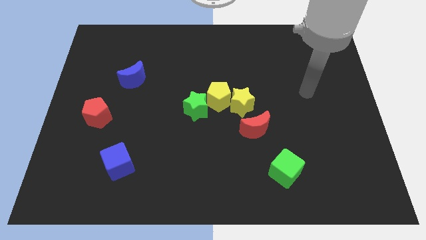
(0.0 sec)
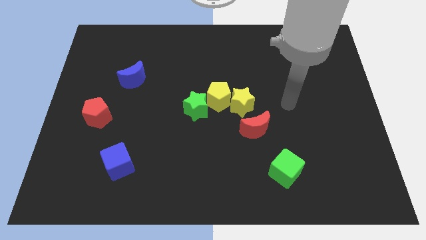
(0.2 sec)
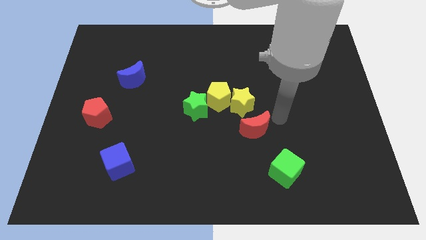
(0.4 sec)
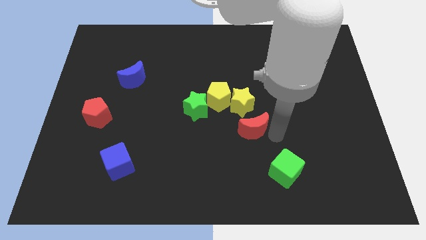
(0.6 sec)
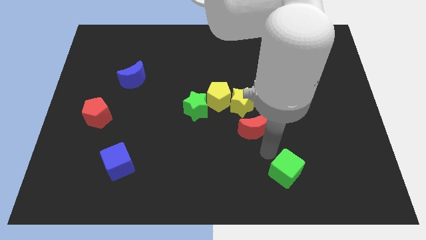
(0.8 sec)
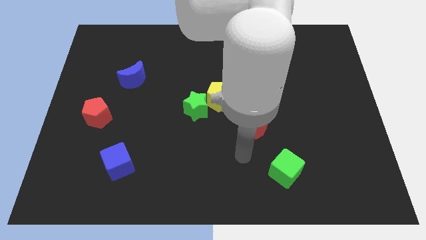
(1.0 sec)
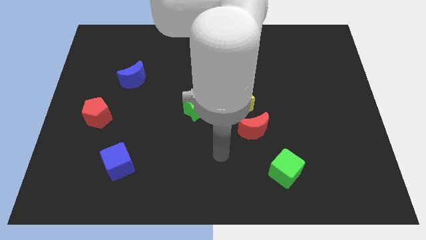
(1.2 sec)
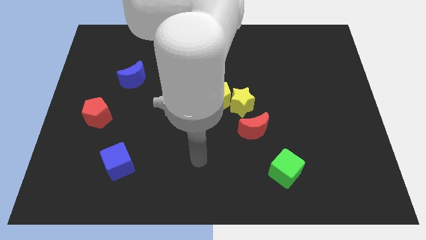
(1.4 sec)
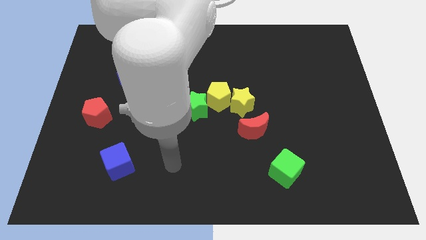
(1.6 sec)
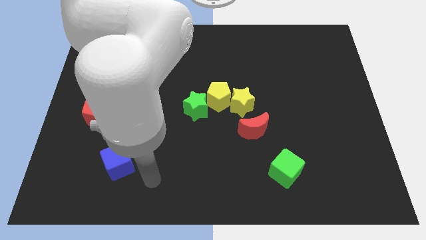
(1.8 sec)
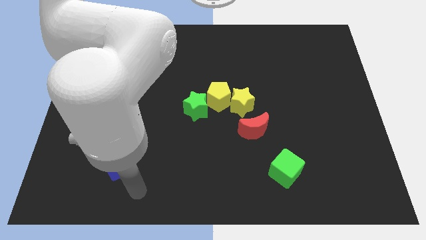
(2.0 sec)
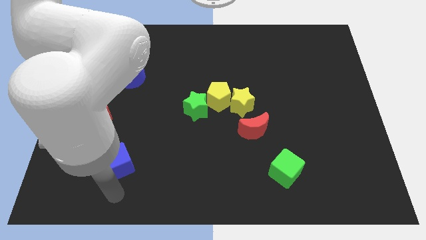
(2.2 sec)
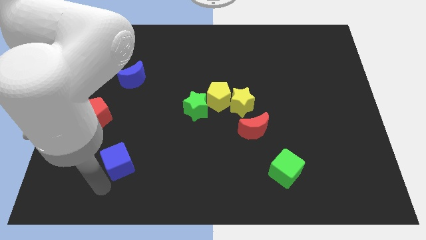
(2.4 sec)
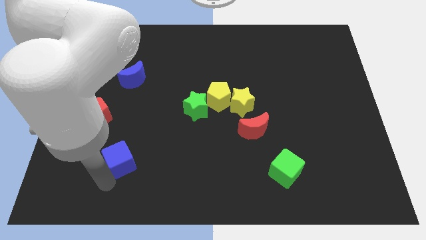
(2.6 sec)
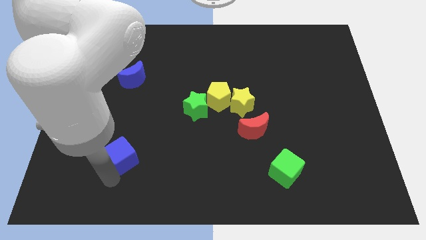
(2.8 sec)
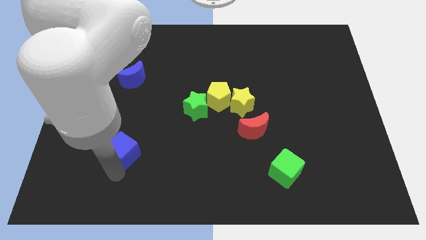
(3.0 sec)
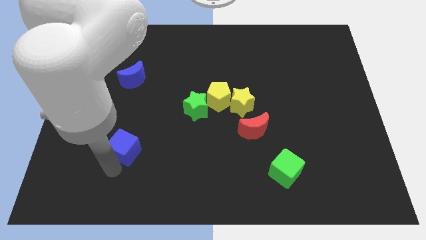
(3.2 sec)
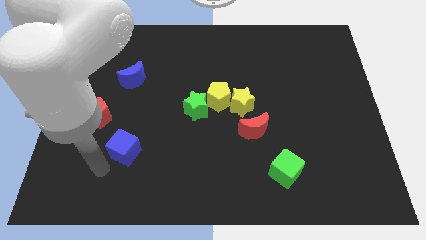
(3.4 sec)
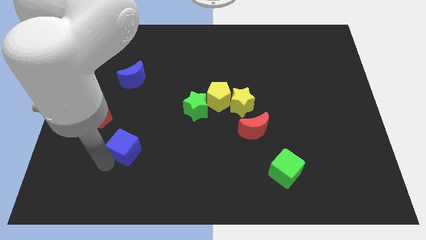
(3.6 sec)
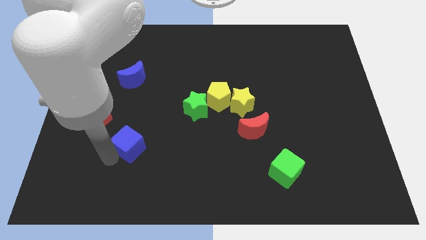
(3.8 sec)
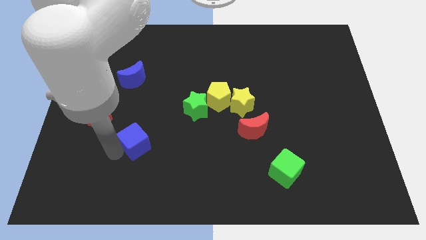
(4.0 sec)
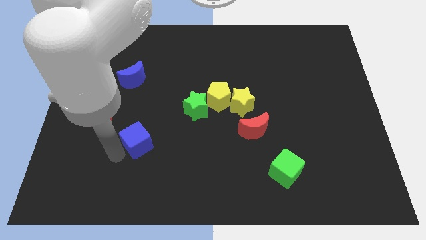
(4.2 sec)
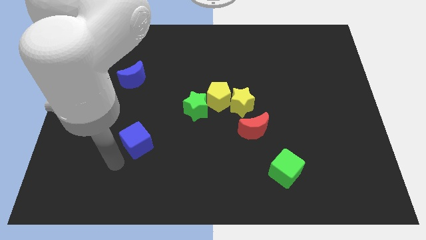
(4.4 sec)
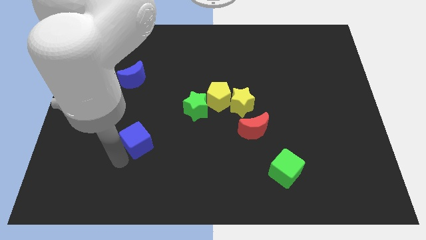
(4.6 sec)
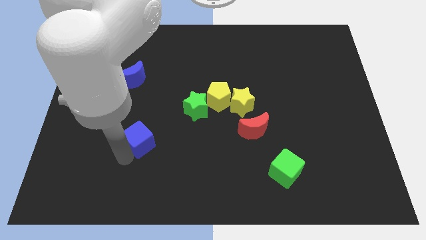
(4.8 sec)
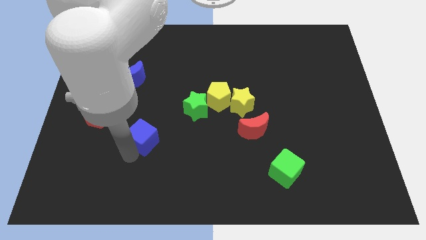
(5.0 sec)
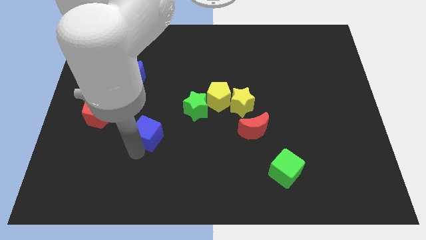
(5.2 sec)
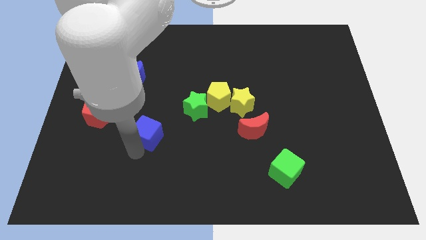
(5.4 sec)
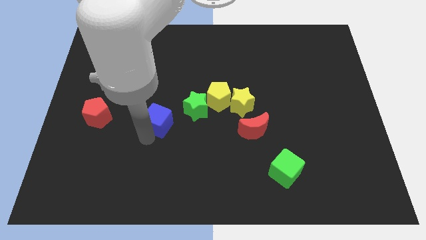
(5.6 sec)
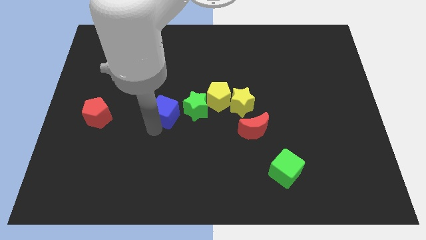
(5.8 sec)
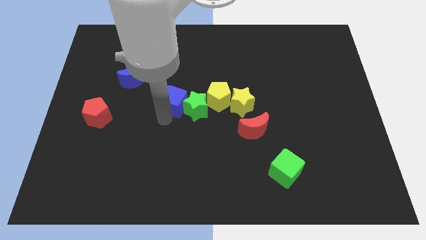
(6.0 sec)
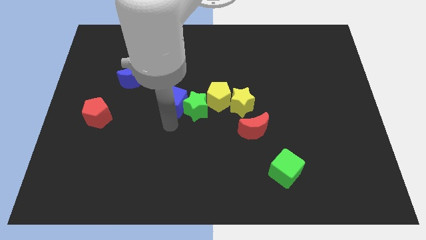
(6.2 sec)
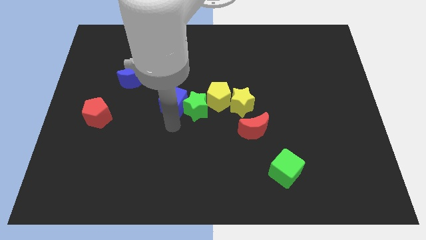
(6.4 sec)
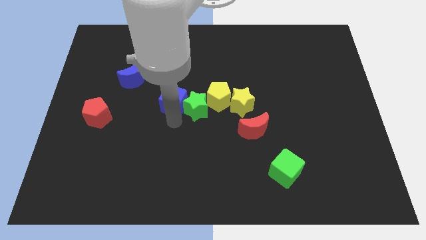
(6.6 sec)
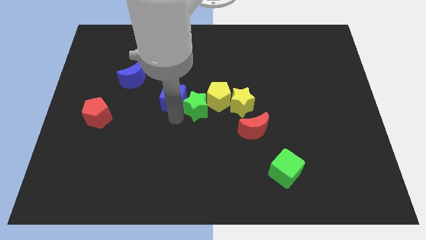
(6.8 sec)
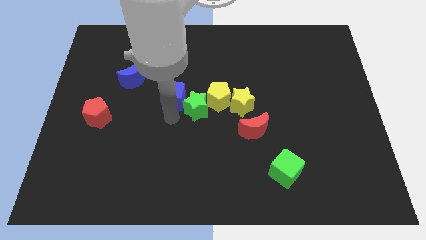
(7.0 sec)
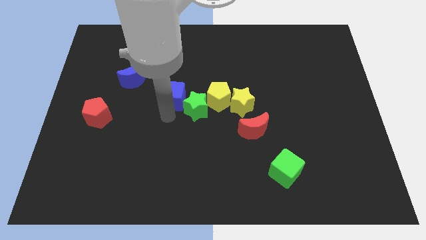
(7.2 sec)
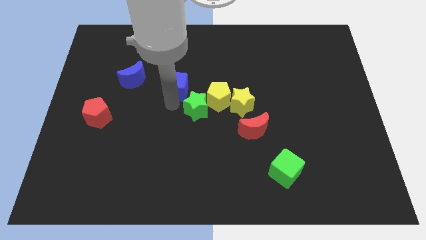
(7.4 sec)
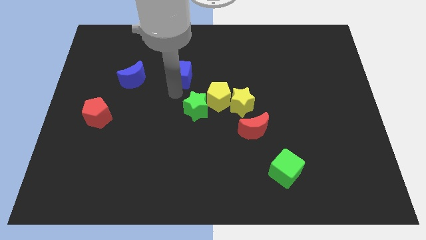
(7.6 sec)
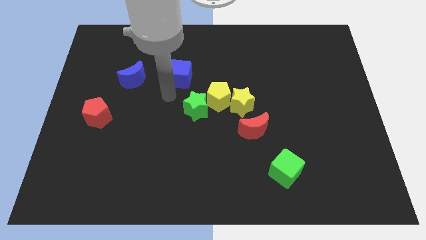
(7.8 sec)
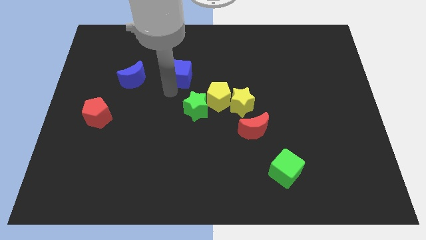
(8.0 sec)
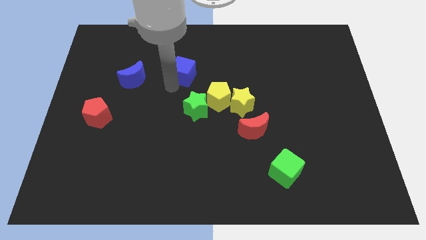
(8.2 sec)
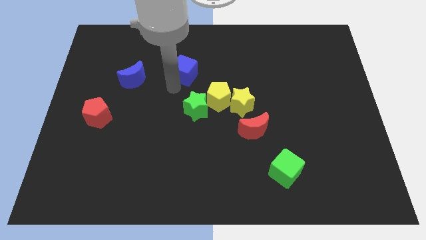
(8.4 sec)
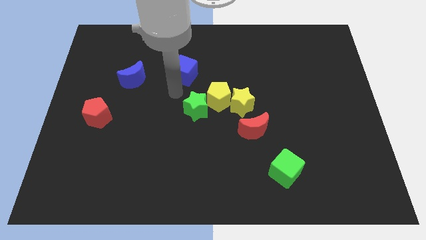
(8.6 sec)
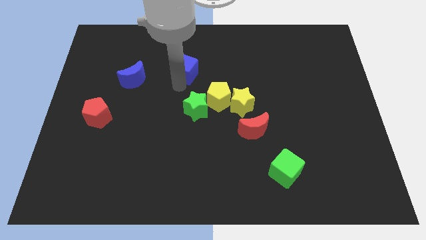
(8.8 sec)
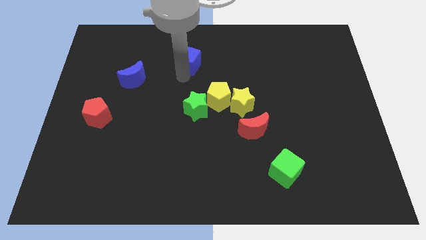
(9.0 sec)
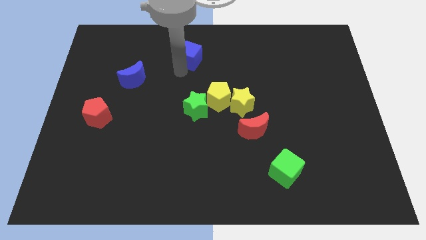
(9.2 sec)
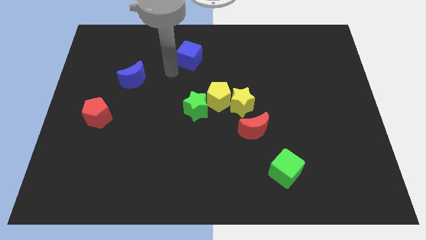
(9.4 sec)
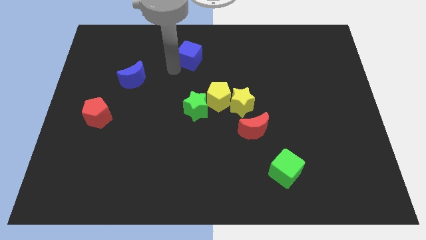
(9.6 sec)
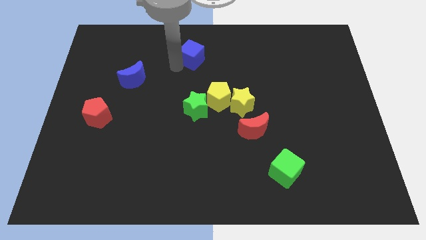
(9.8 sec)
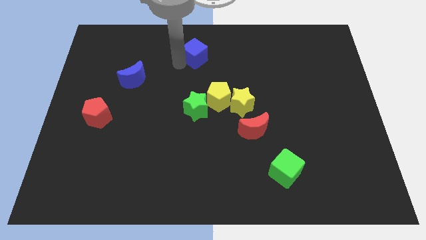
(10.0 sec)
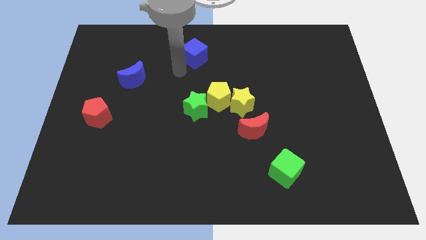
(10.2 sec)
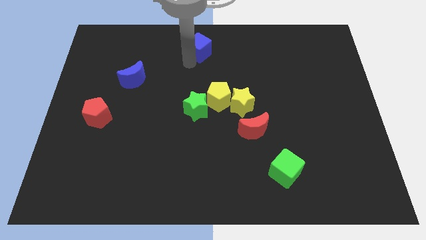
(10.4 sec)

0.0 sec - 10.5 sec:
push the blue cube to the top

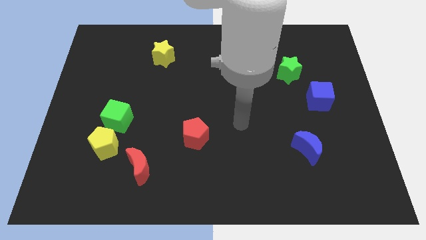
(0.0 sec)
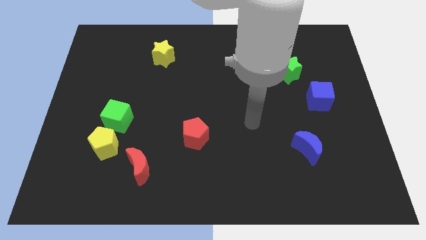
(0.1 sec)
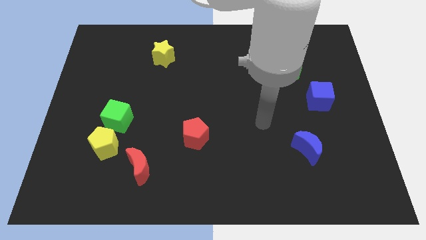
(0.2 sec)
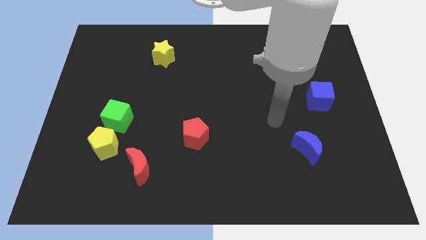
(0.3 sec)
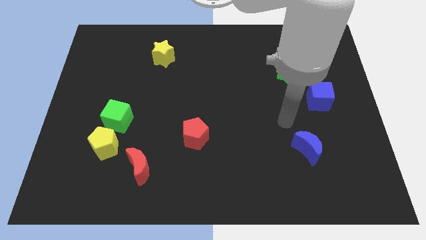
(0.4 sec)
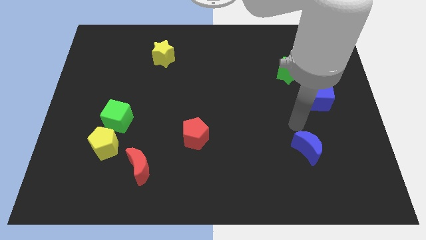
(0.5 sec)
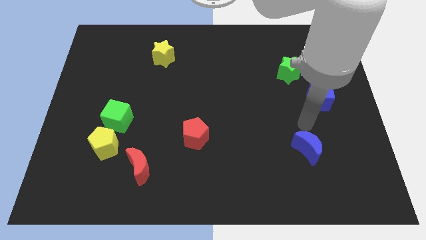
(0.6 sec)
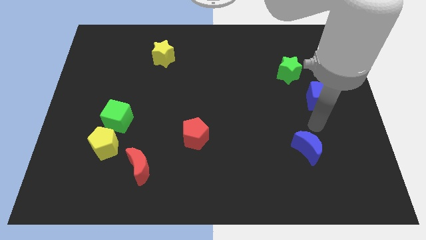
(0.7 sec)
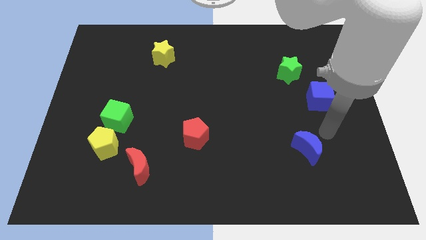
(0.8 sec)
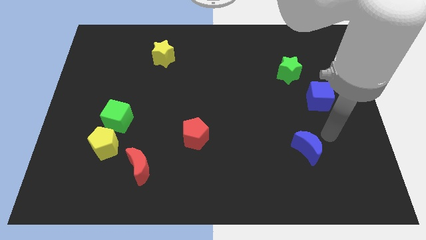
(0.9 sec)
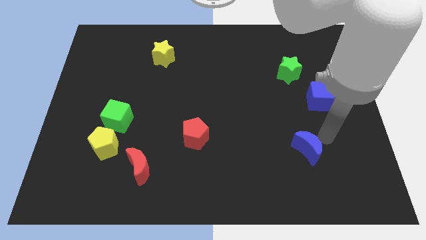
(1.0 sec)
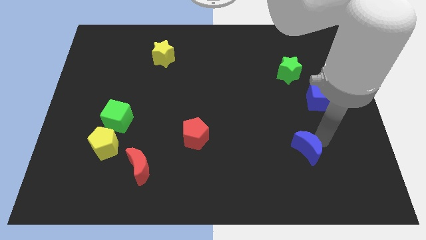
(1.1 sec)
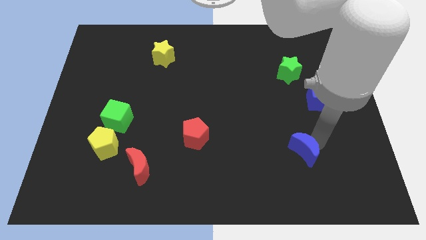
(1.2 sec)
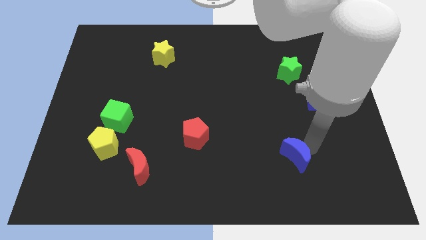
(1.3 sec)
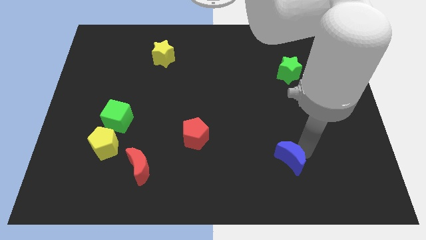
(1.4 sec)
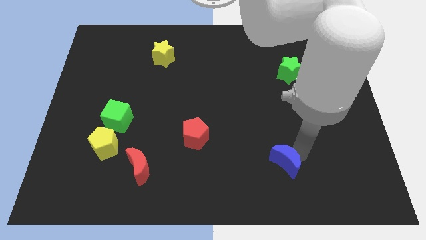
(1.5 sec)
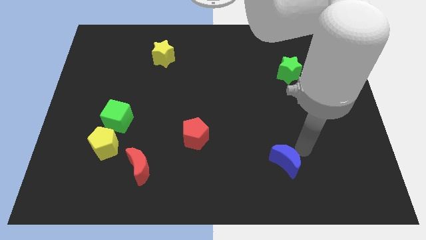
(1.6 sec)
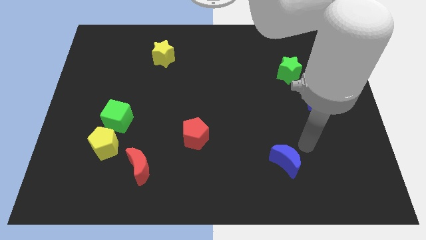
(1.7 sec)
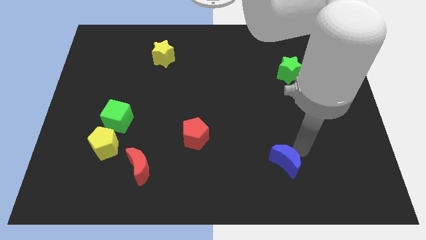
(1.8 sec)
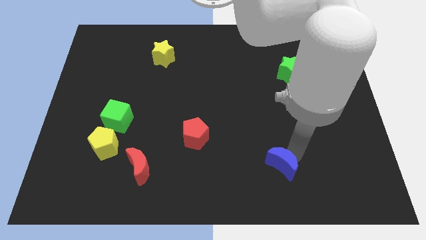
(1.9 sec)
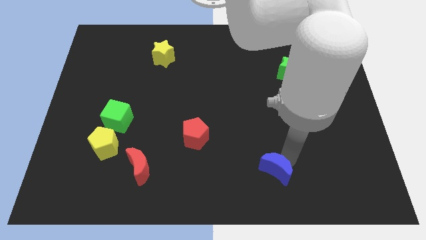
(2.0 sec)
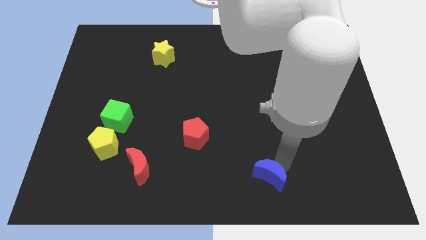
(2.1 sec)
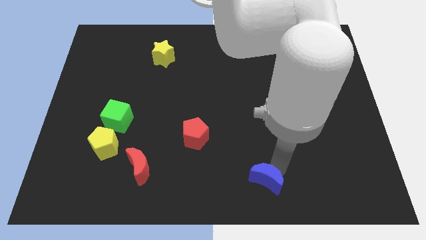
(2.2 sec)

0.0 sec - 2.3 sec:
slide the blue moon to the bottom
